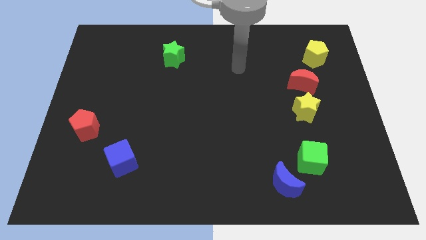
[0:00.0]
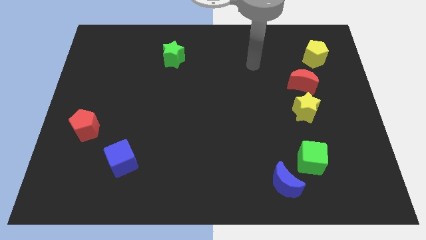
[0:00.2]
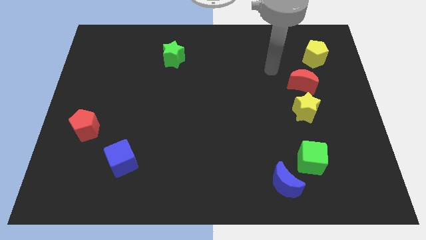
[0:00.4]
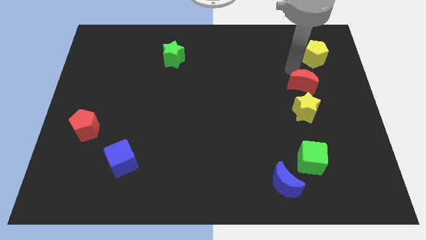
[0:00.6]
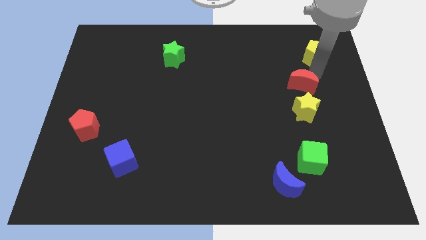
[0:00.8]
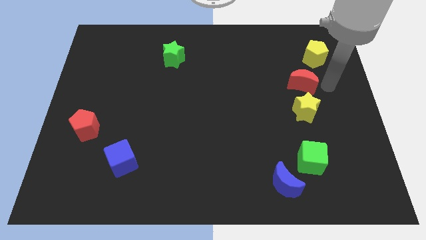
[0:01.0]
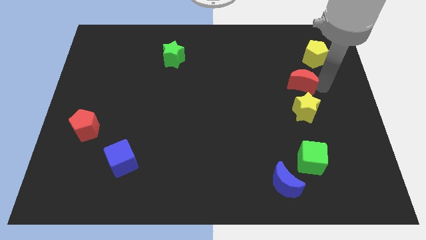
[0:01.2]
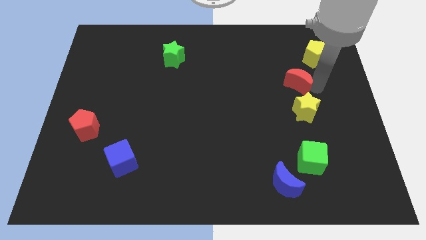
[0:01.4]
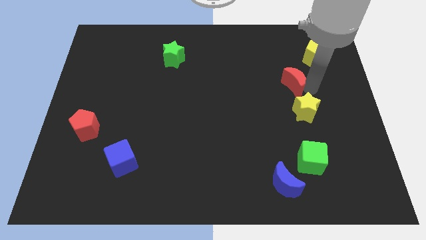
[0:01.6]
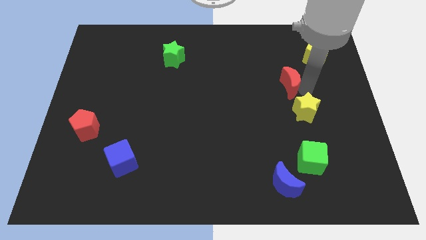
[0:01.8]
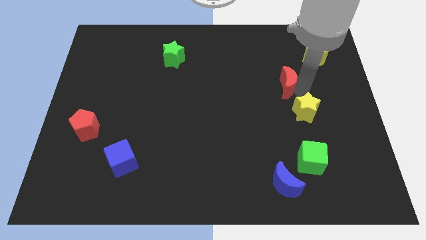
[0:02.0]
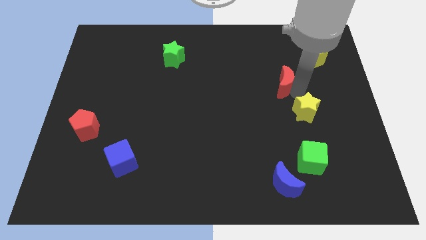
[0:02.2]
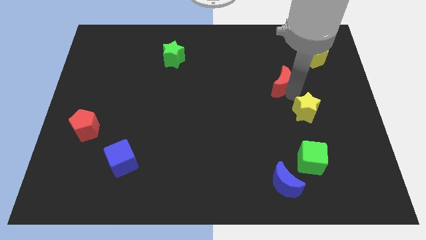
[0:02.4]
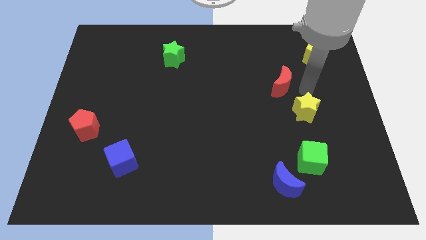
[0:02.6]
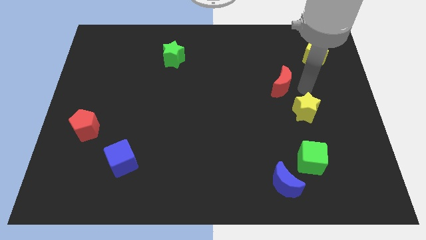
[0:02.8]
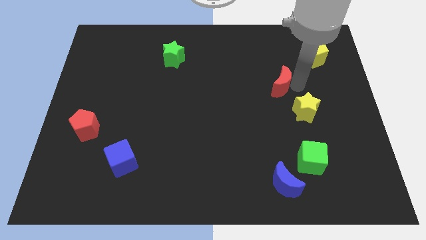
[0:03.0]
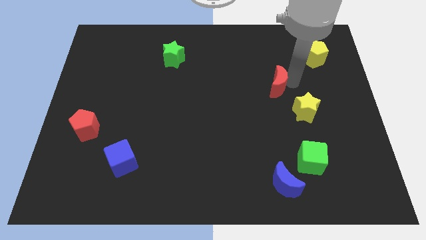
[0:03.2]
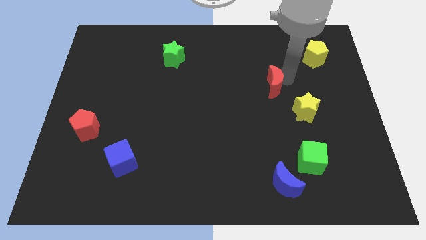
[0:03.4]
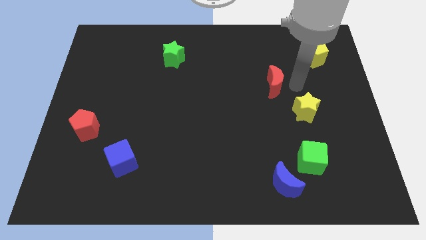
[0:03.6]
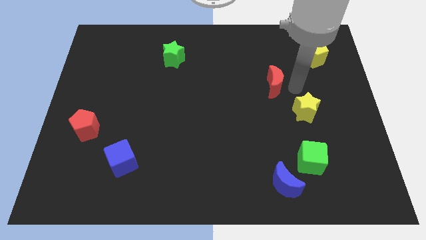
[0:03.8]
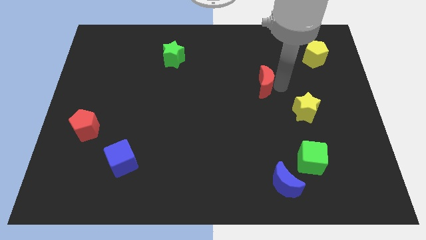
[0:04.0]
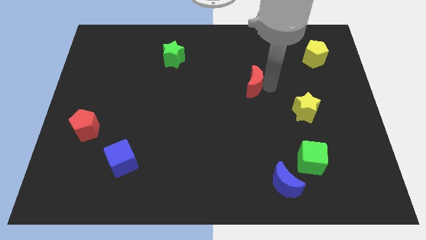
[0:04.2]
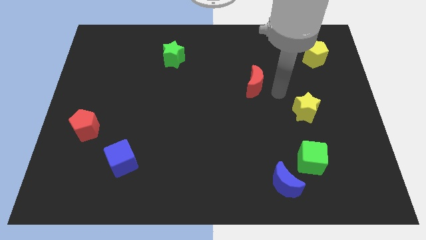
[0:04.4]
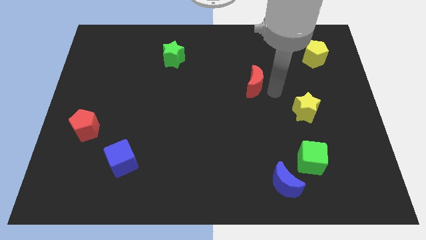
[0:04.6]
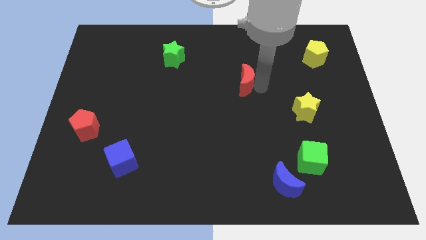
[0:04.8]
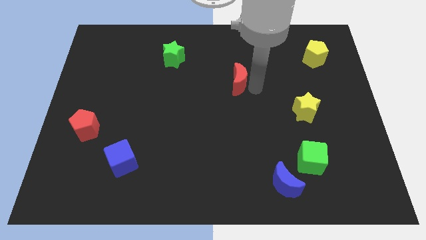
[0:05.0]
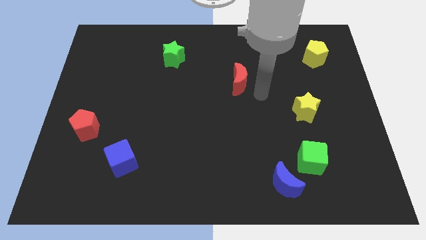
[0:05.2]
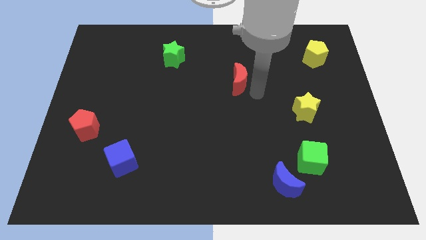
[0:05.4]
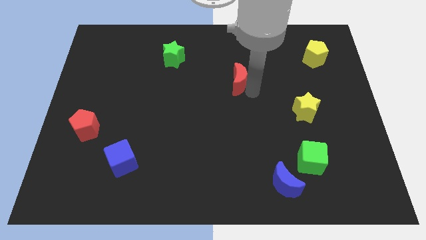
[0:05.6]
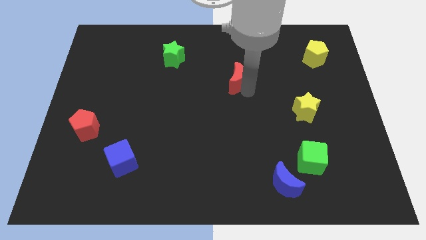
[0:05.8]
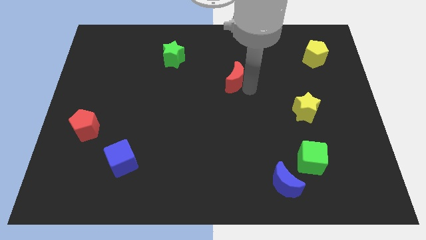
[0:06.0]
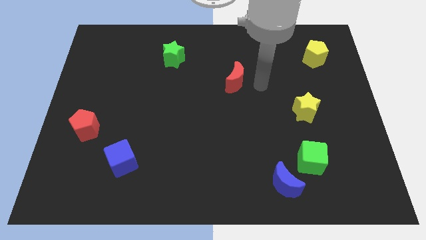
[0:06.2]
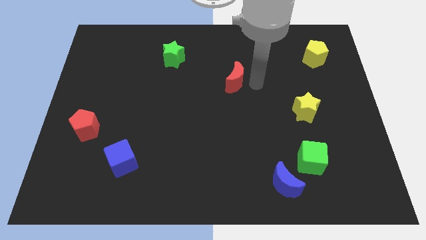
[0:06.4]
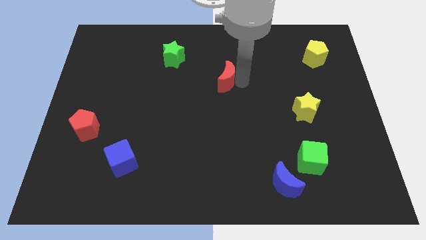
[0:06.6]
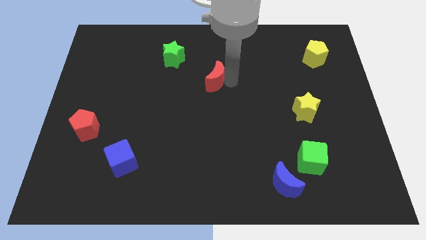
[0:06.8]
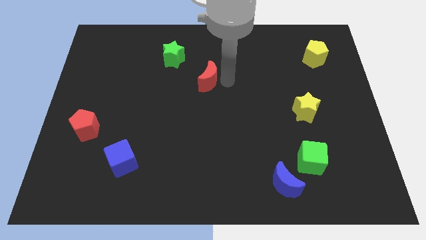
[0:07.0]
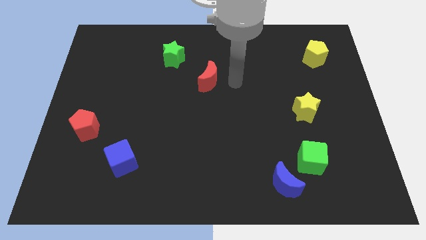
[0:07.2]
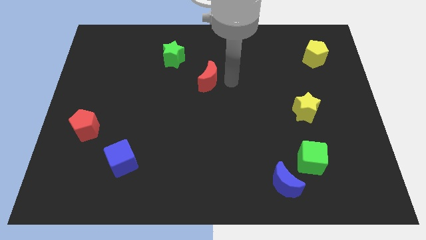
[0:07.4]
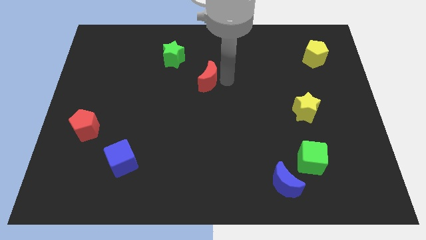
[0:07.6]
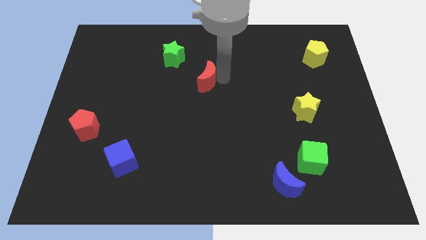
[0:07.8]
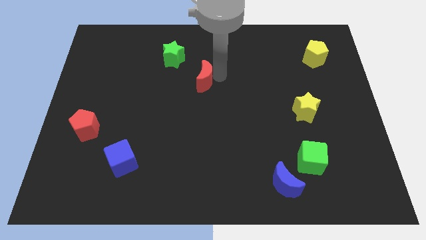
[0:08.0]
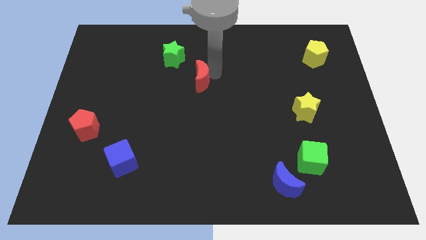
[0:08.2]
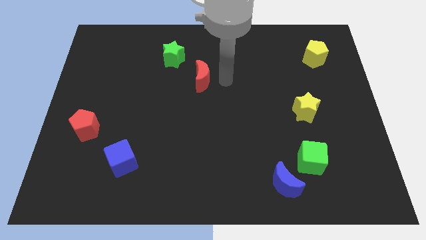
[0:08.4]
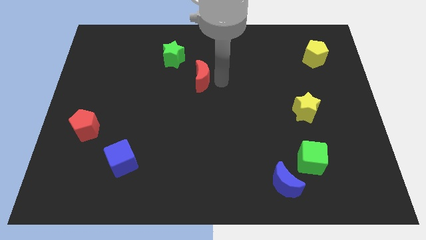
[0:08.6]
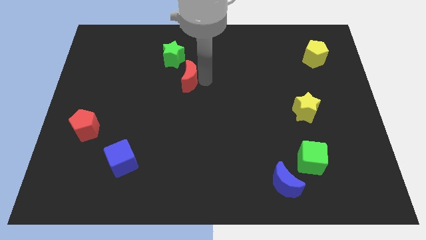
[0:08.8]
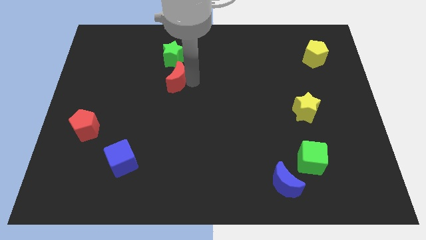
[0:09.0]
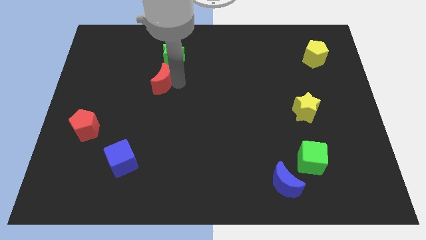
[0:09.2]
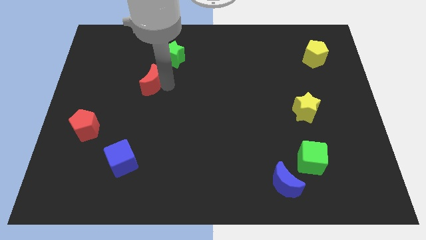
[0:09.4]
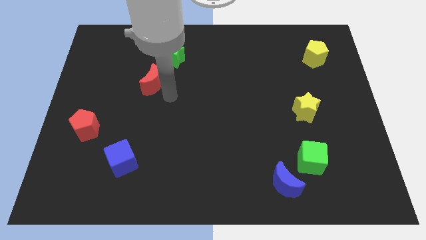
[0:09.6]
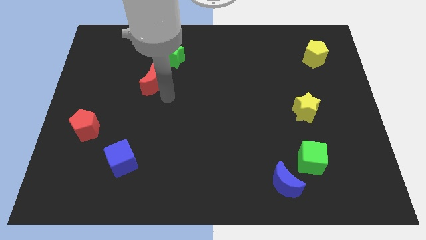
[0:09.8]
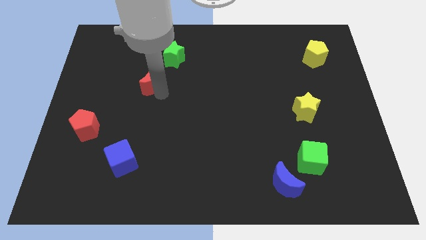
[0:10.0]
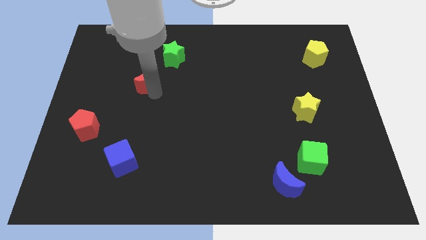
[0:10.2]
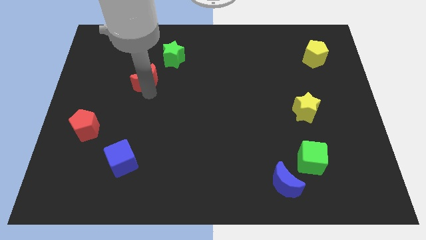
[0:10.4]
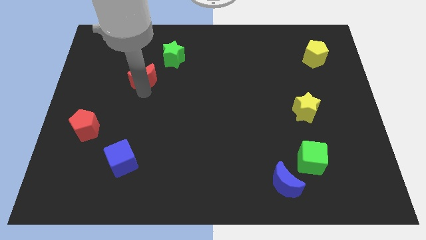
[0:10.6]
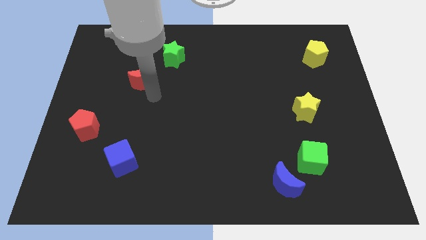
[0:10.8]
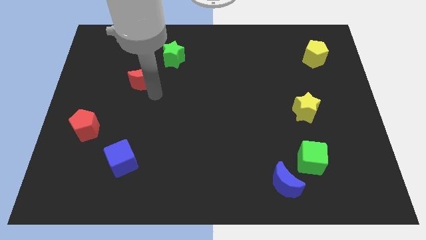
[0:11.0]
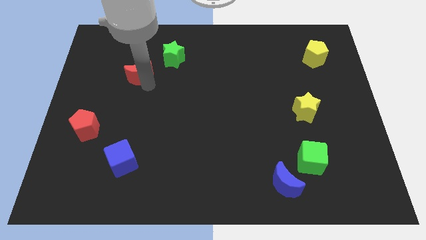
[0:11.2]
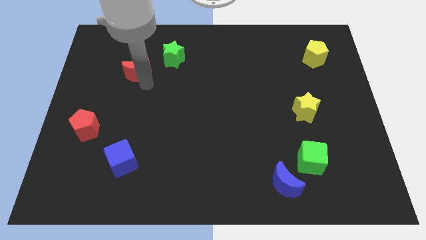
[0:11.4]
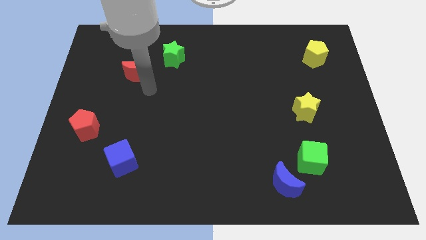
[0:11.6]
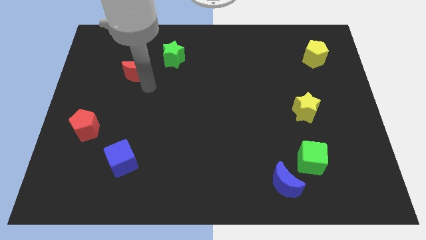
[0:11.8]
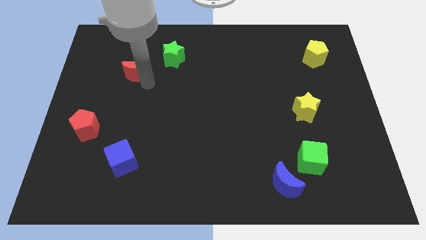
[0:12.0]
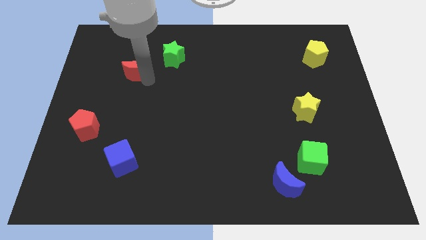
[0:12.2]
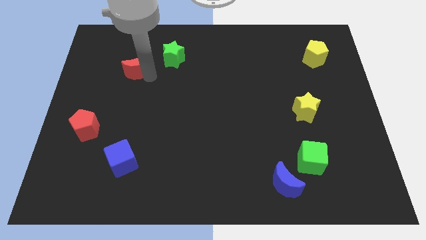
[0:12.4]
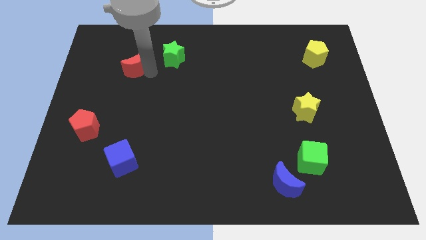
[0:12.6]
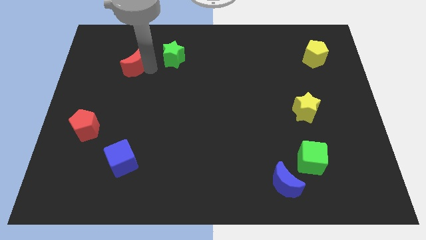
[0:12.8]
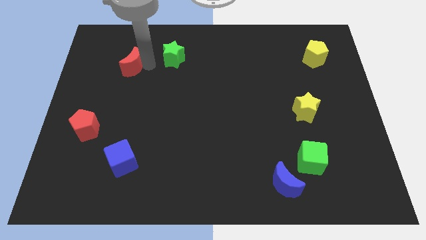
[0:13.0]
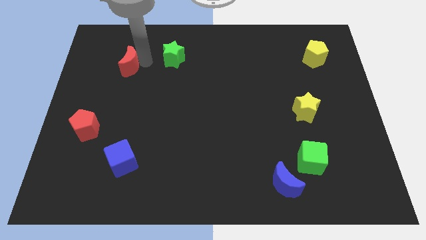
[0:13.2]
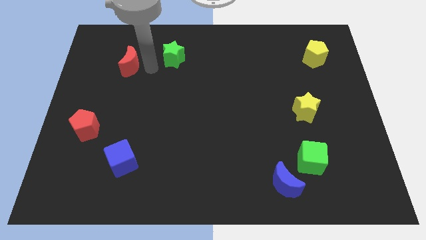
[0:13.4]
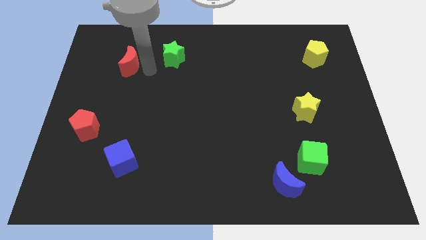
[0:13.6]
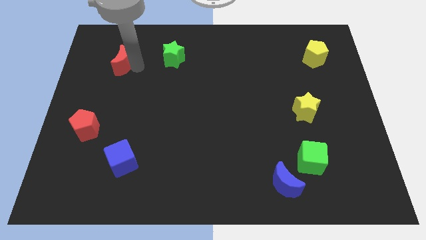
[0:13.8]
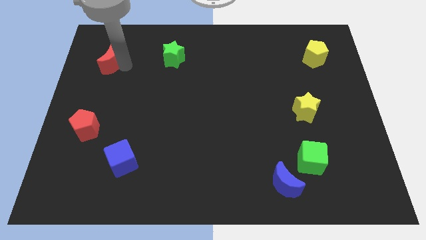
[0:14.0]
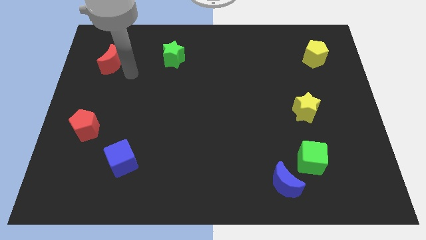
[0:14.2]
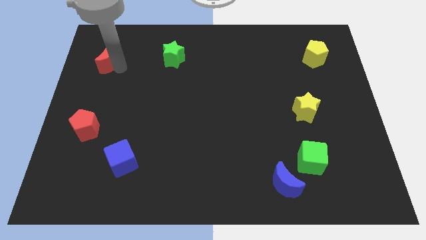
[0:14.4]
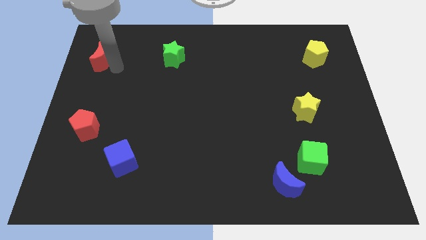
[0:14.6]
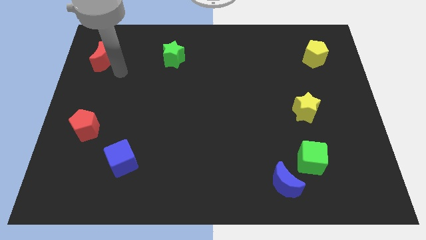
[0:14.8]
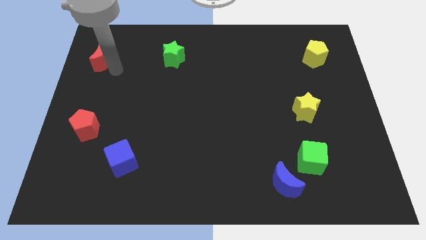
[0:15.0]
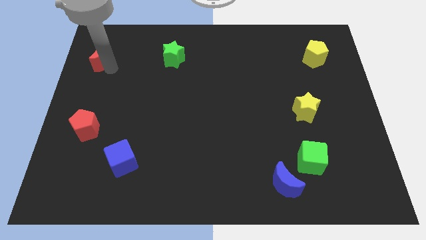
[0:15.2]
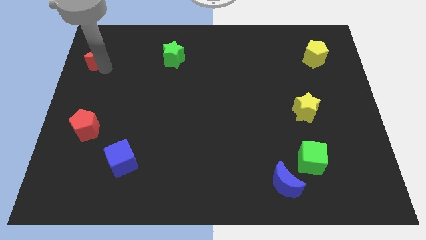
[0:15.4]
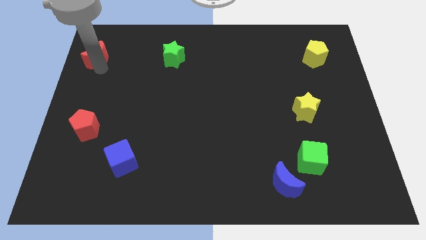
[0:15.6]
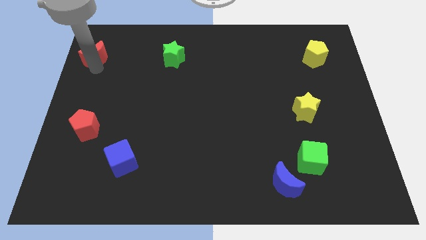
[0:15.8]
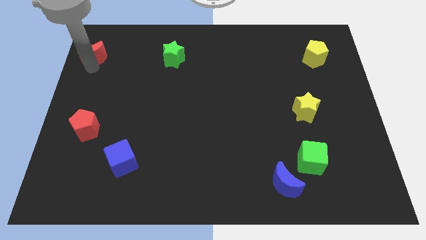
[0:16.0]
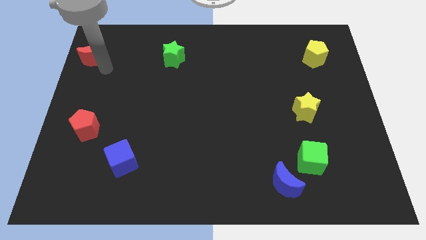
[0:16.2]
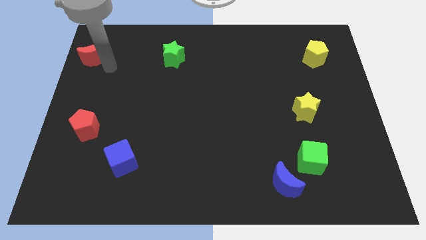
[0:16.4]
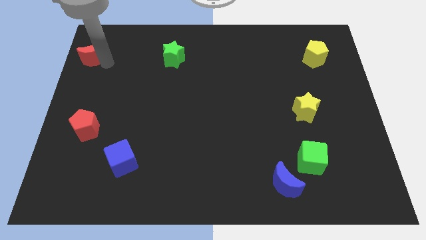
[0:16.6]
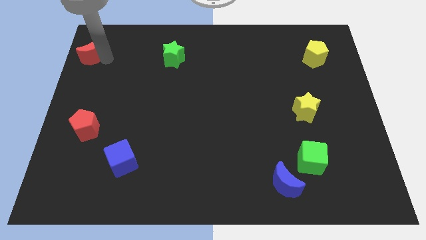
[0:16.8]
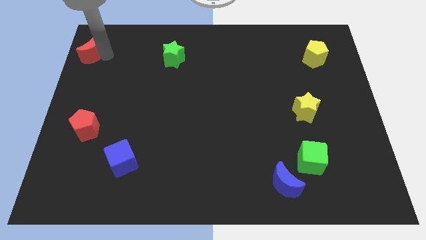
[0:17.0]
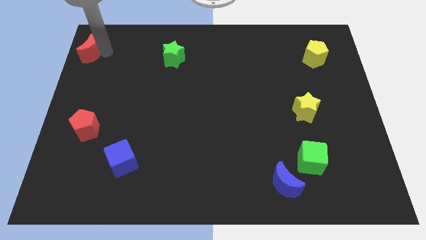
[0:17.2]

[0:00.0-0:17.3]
move the red moon to the top left corner
